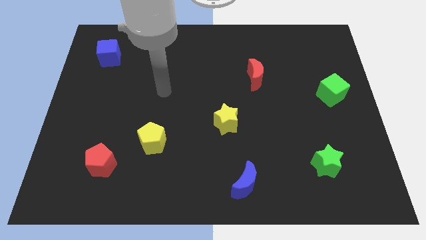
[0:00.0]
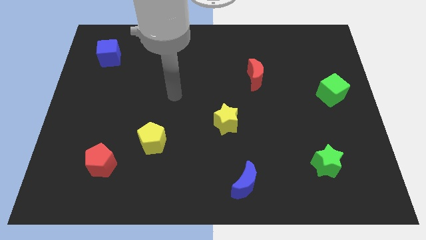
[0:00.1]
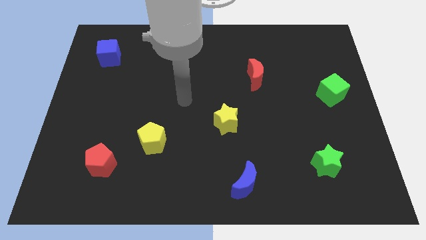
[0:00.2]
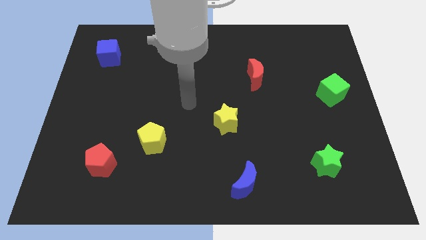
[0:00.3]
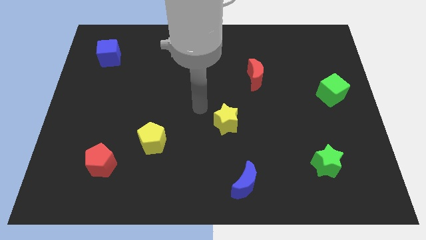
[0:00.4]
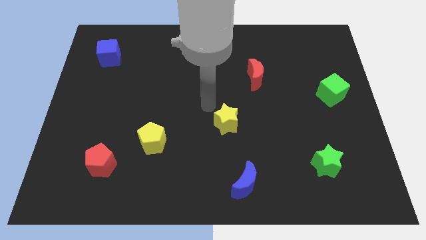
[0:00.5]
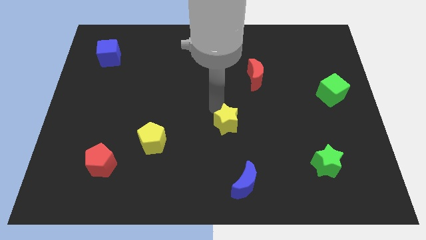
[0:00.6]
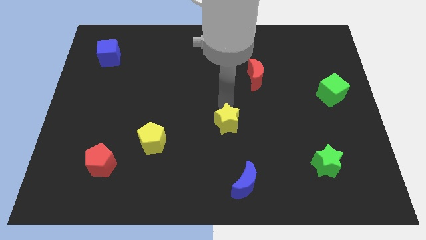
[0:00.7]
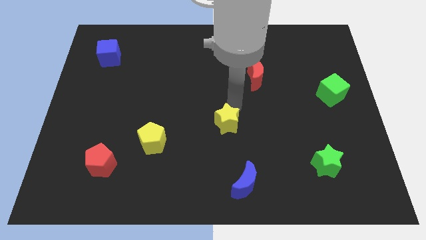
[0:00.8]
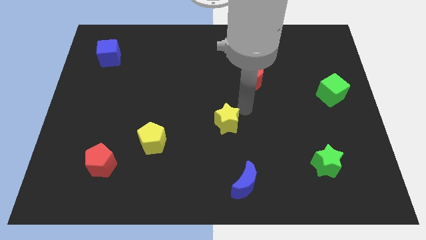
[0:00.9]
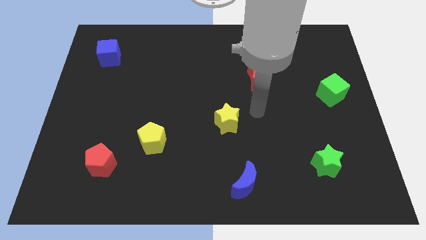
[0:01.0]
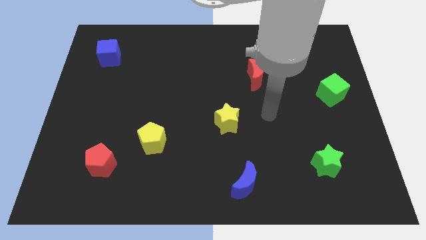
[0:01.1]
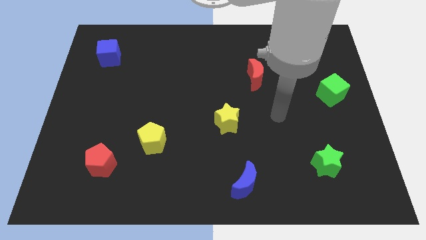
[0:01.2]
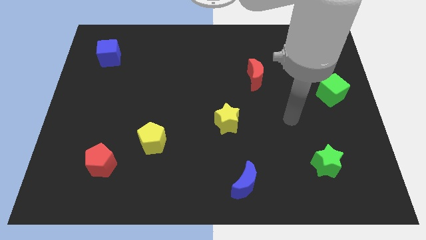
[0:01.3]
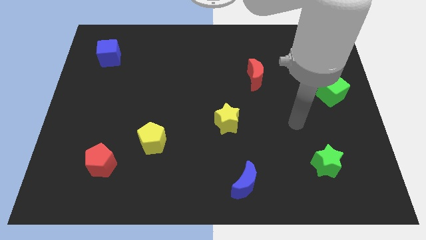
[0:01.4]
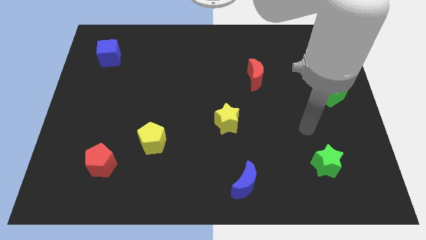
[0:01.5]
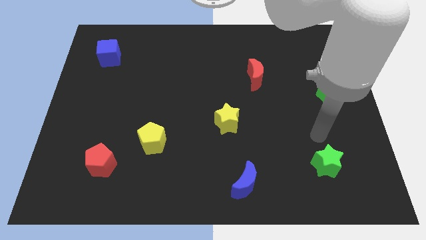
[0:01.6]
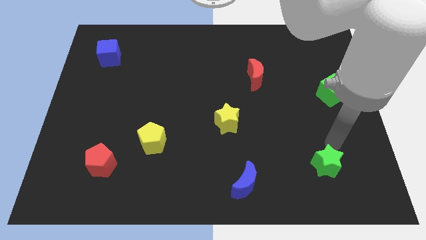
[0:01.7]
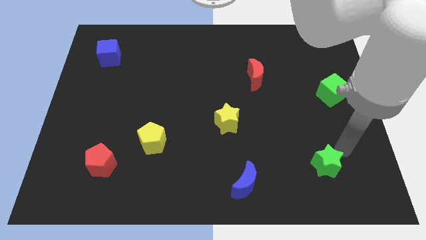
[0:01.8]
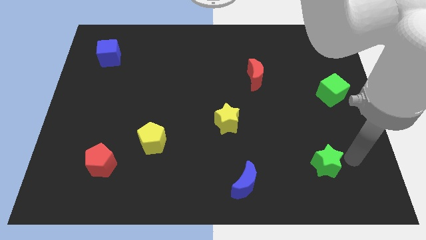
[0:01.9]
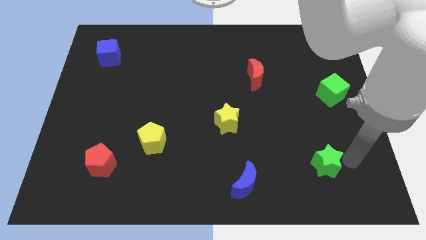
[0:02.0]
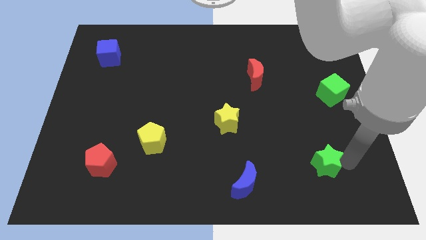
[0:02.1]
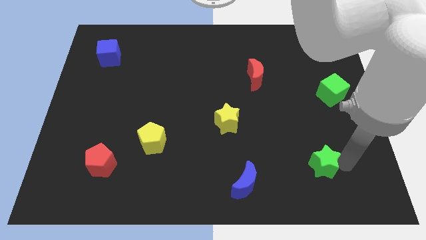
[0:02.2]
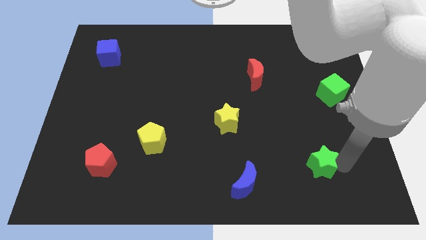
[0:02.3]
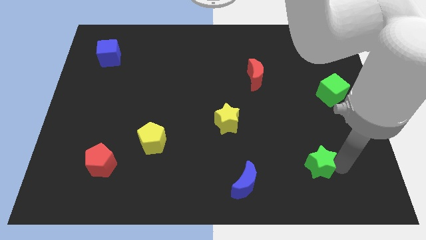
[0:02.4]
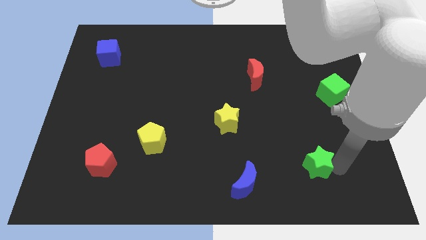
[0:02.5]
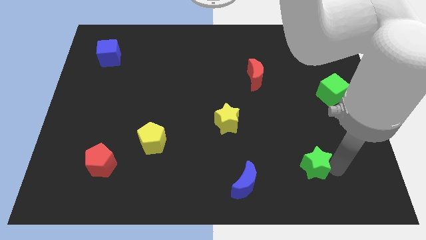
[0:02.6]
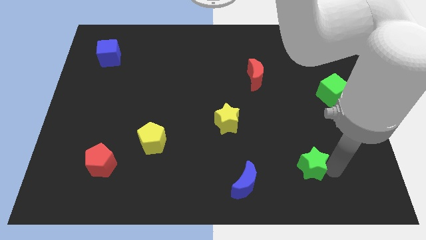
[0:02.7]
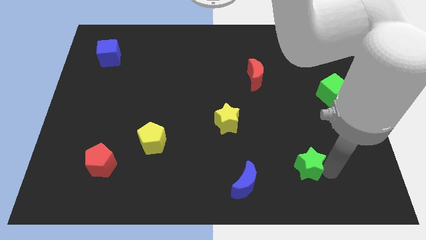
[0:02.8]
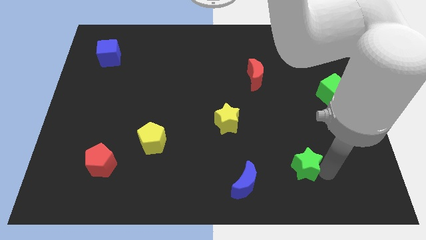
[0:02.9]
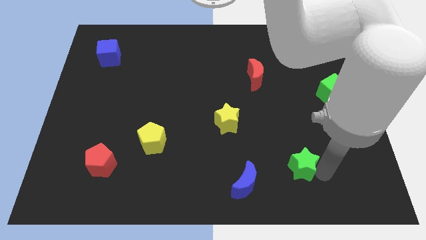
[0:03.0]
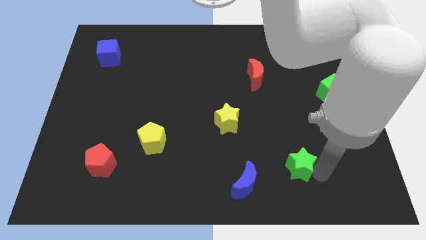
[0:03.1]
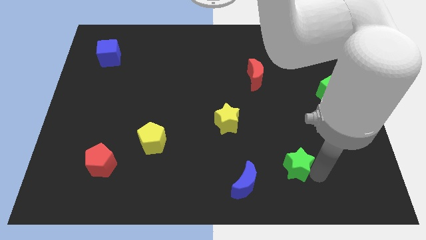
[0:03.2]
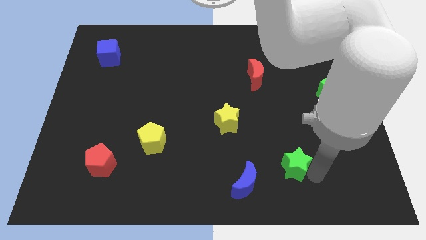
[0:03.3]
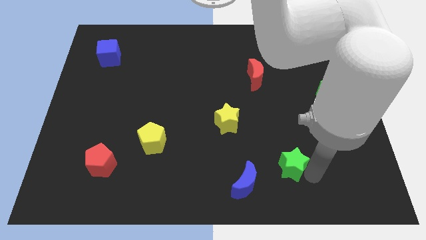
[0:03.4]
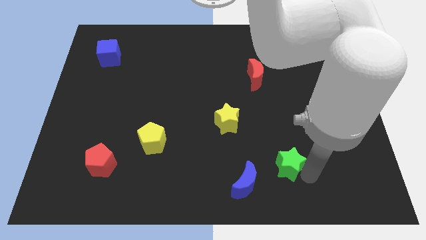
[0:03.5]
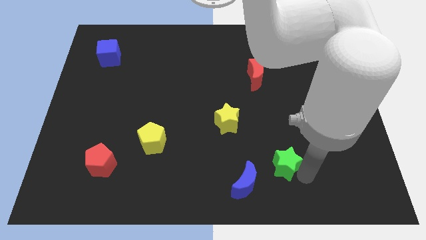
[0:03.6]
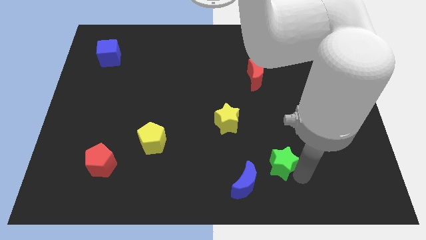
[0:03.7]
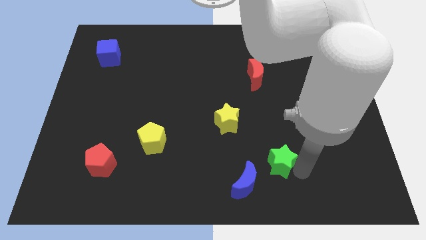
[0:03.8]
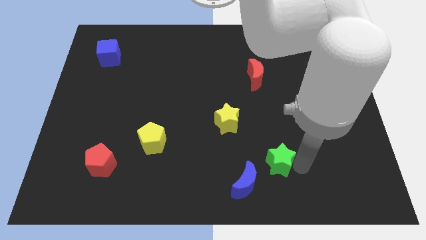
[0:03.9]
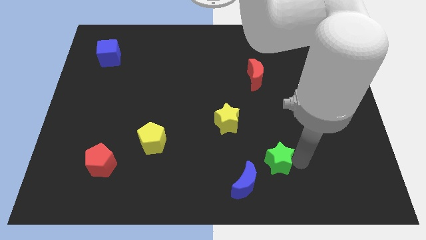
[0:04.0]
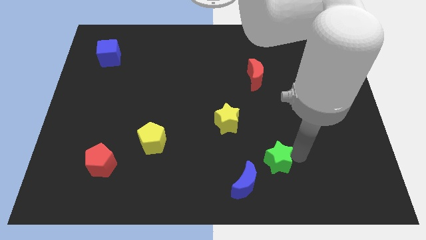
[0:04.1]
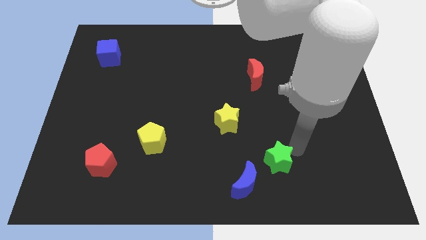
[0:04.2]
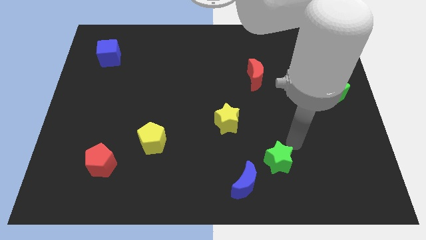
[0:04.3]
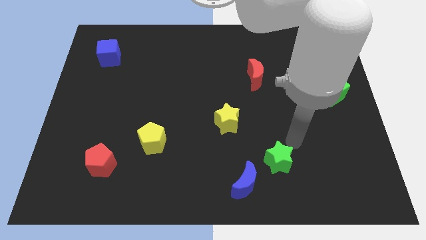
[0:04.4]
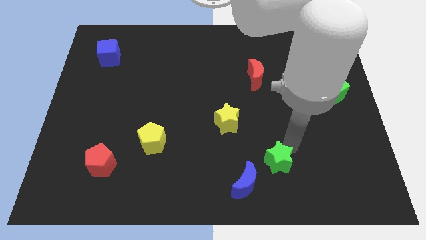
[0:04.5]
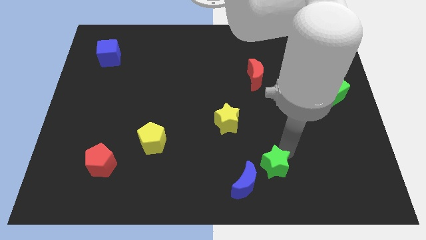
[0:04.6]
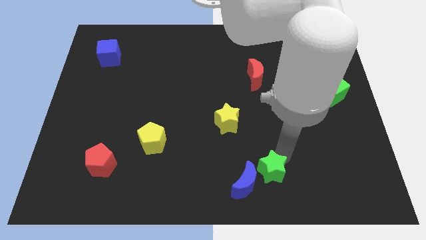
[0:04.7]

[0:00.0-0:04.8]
slide the green star next to the blue moon

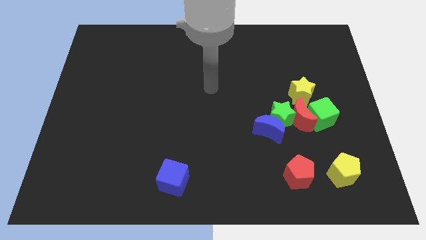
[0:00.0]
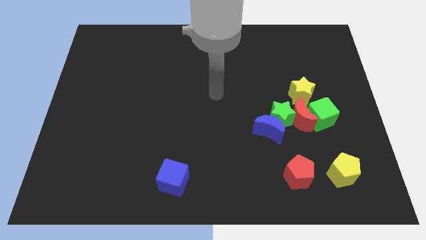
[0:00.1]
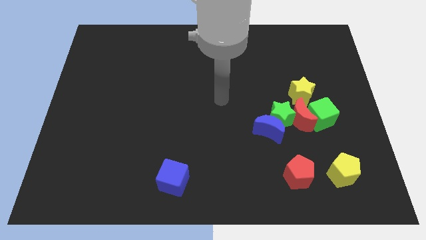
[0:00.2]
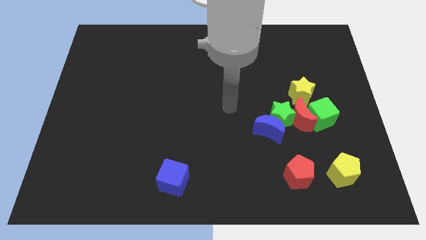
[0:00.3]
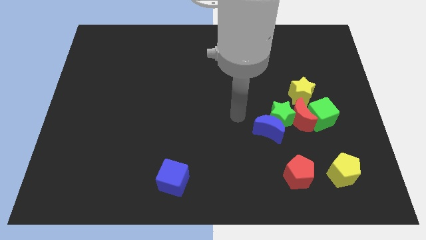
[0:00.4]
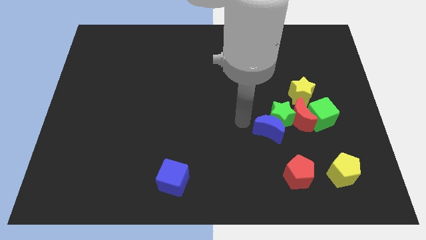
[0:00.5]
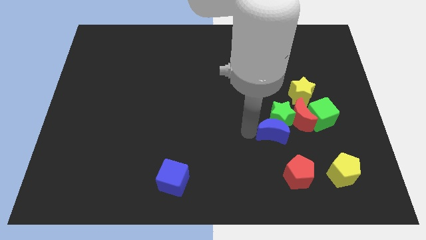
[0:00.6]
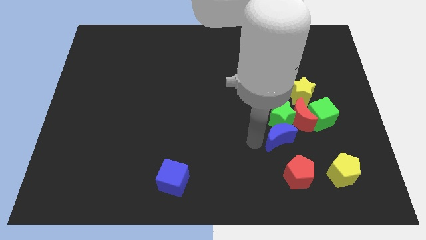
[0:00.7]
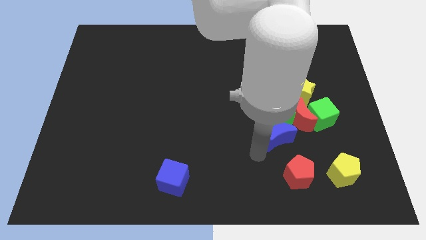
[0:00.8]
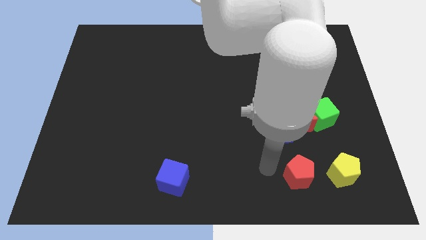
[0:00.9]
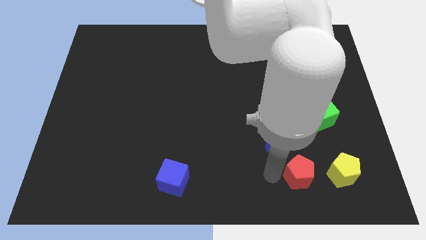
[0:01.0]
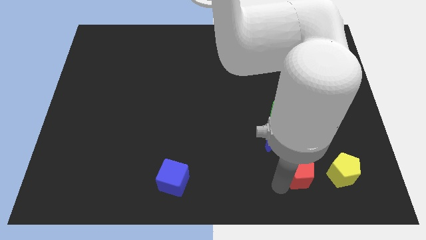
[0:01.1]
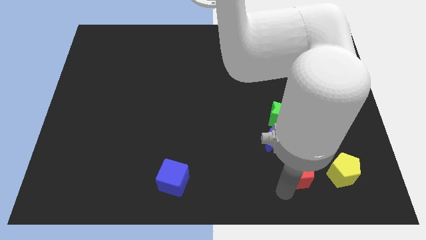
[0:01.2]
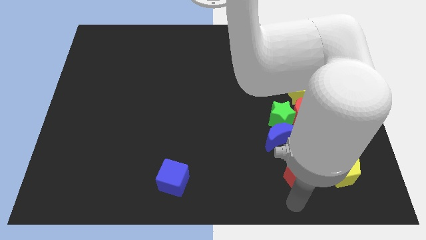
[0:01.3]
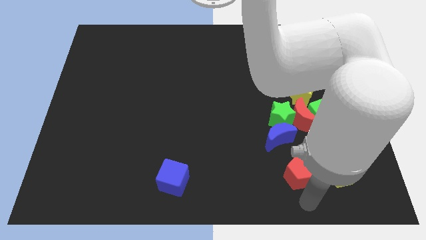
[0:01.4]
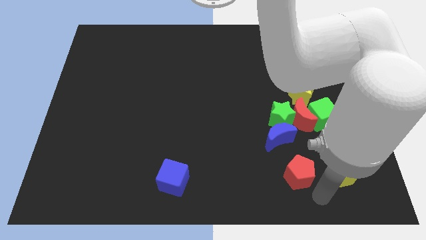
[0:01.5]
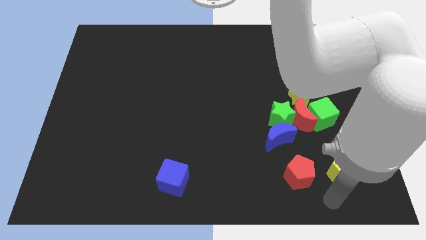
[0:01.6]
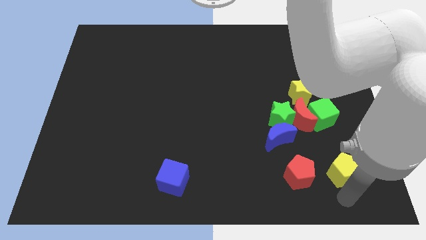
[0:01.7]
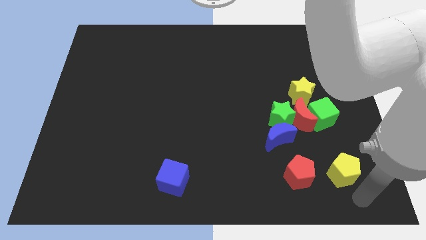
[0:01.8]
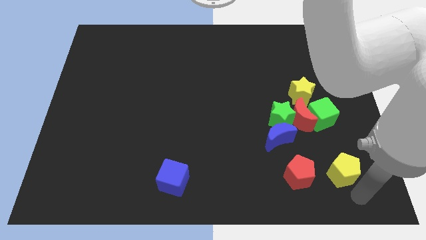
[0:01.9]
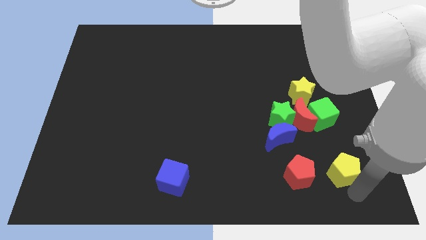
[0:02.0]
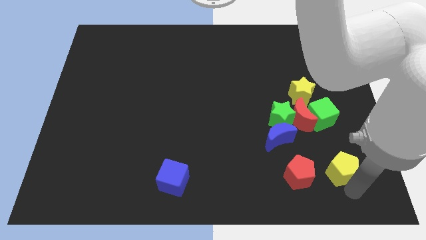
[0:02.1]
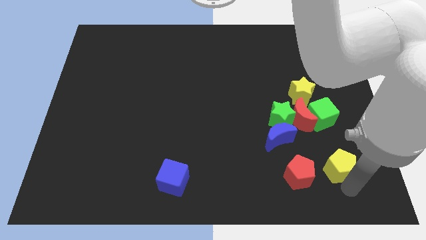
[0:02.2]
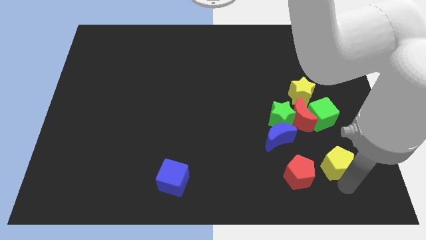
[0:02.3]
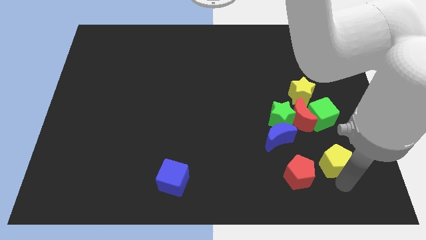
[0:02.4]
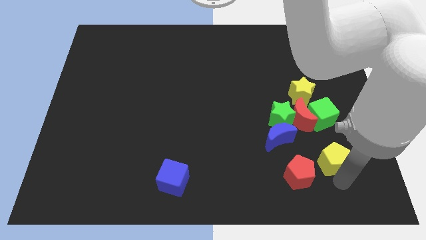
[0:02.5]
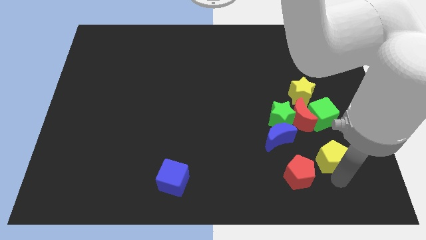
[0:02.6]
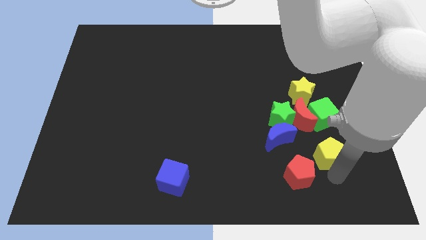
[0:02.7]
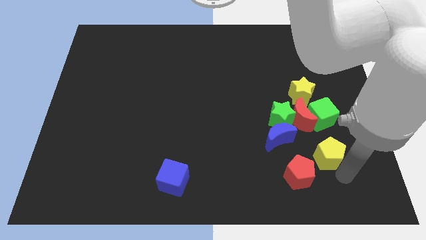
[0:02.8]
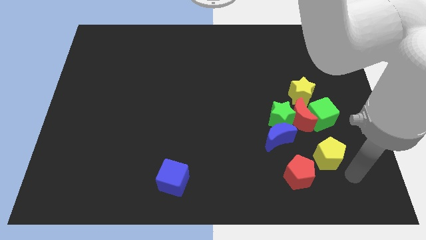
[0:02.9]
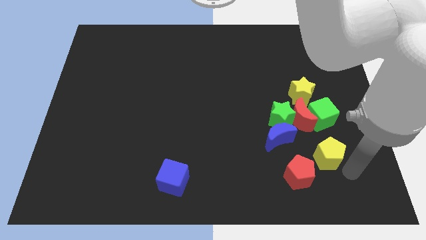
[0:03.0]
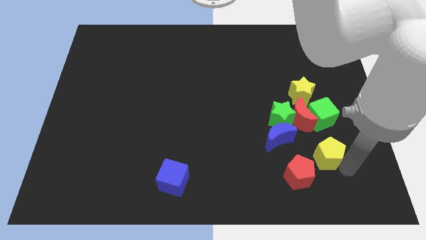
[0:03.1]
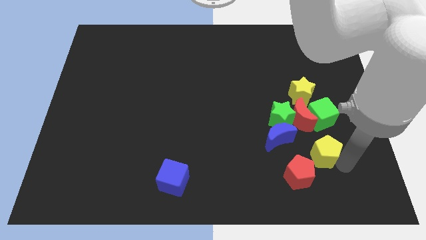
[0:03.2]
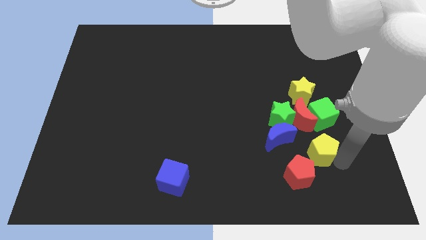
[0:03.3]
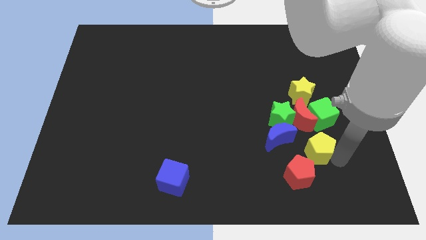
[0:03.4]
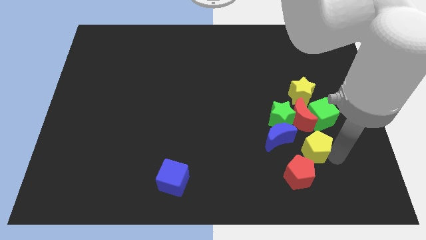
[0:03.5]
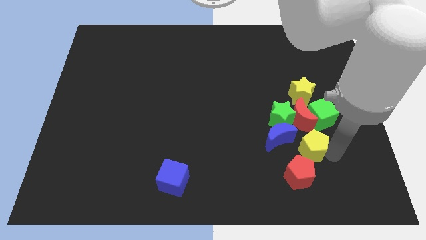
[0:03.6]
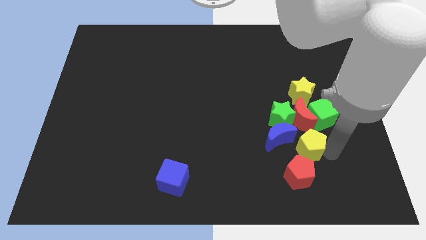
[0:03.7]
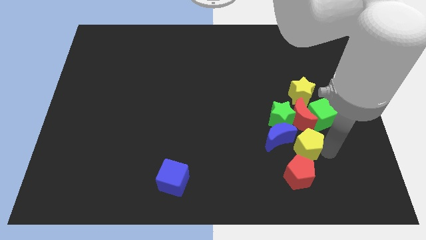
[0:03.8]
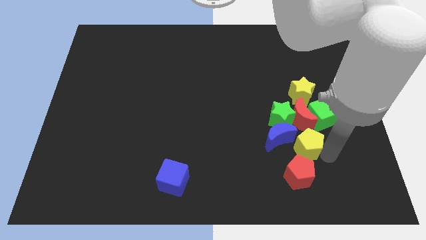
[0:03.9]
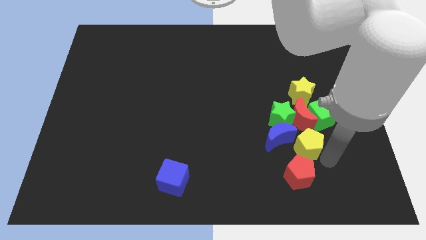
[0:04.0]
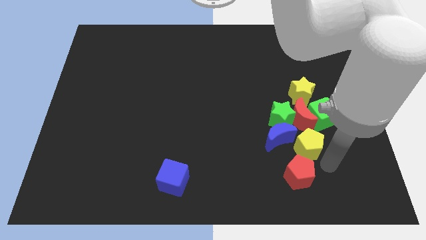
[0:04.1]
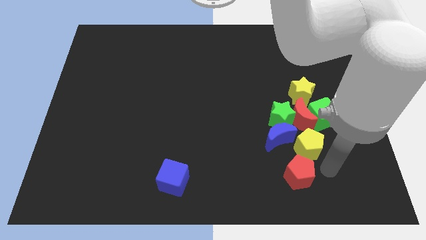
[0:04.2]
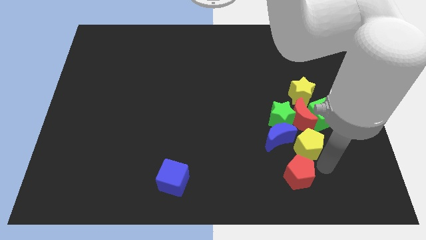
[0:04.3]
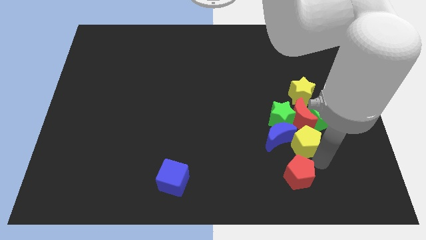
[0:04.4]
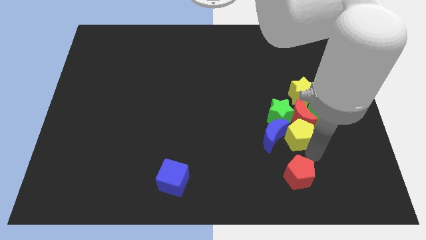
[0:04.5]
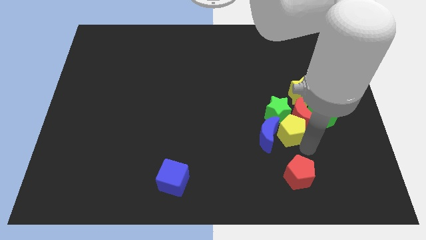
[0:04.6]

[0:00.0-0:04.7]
move the yellow pentagon towards the green star
